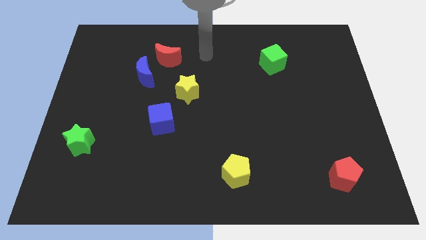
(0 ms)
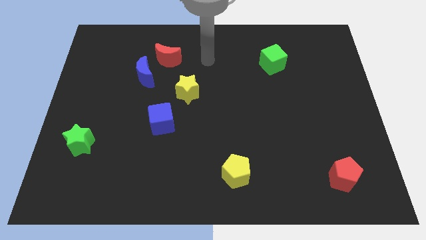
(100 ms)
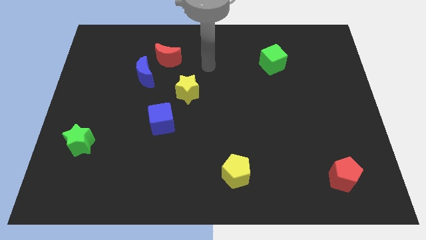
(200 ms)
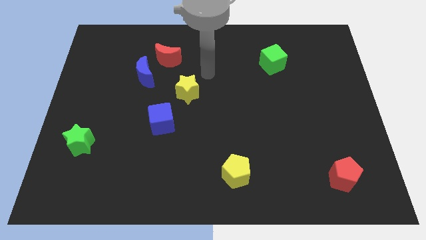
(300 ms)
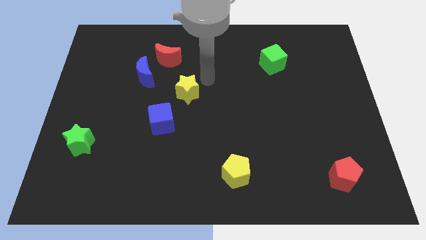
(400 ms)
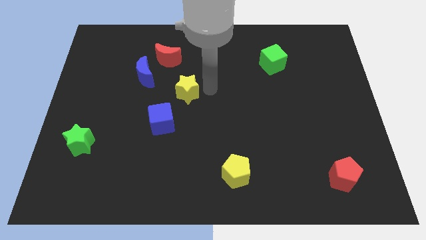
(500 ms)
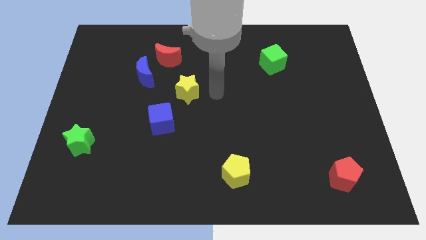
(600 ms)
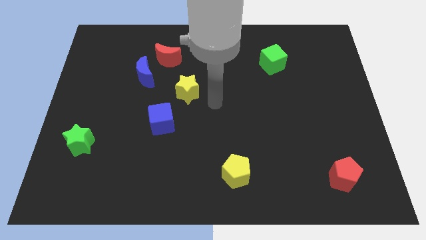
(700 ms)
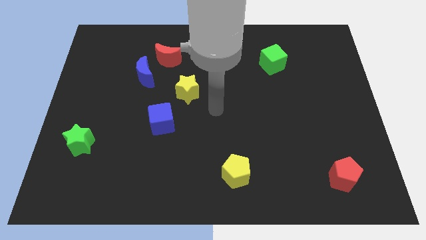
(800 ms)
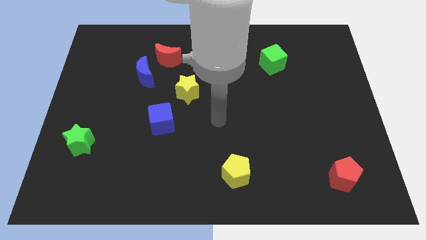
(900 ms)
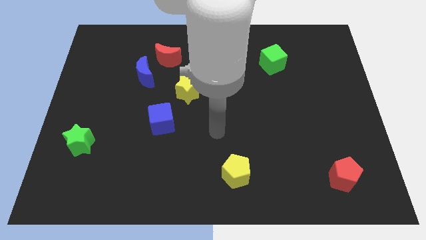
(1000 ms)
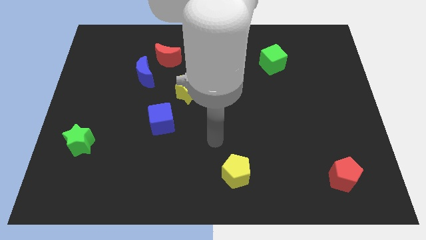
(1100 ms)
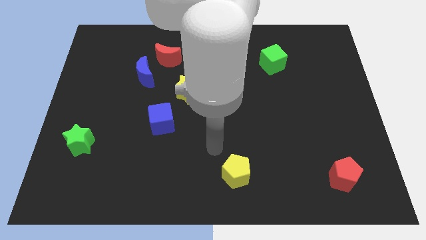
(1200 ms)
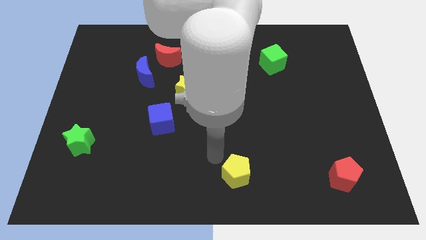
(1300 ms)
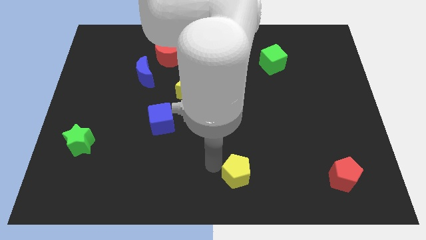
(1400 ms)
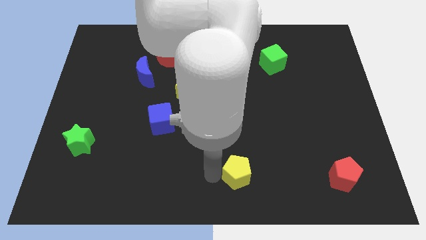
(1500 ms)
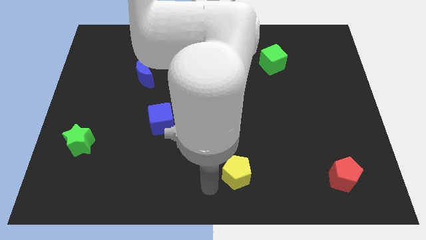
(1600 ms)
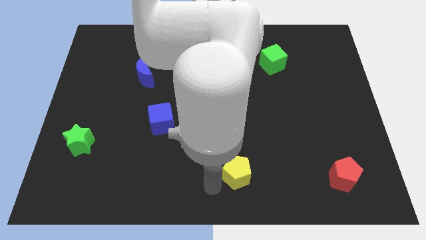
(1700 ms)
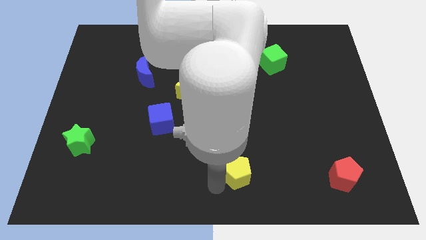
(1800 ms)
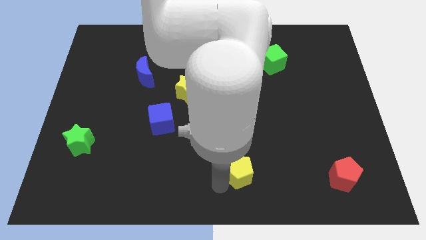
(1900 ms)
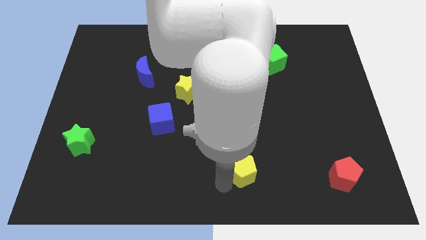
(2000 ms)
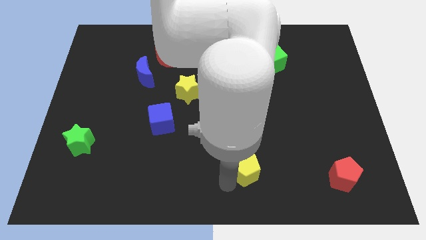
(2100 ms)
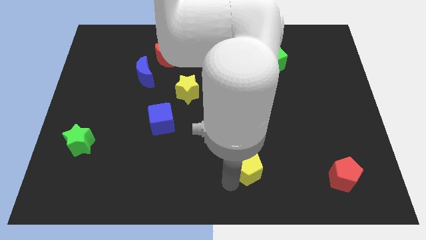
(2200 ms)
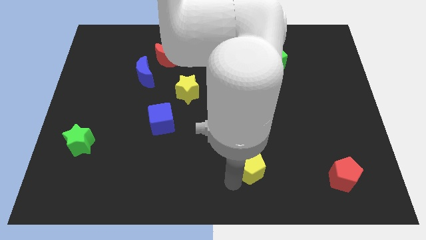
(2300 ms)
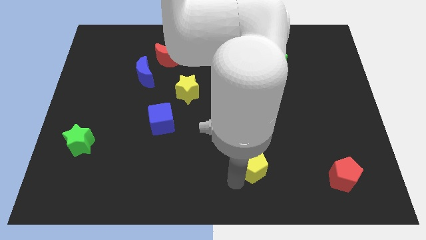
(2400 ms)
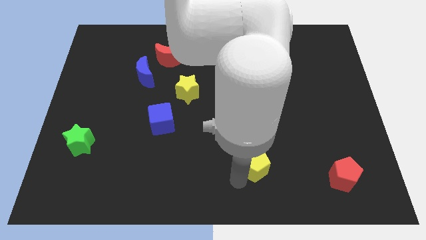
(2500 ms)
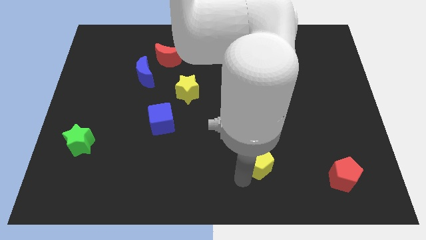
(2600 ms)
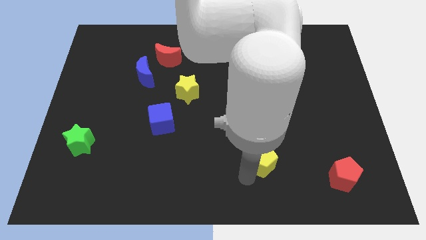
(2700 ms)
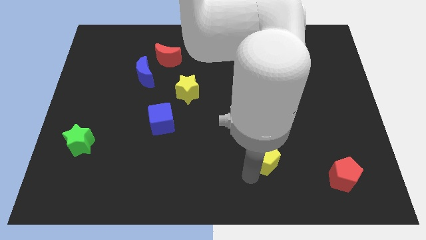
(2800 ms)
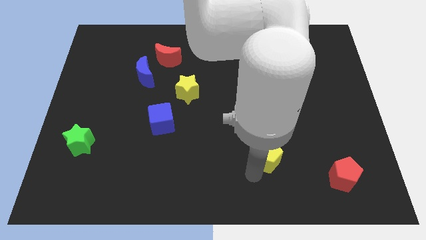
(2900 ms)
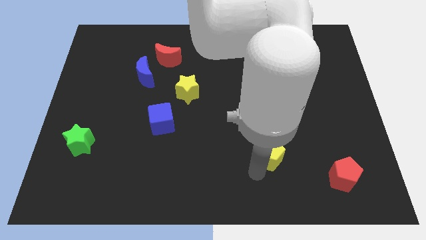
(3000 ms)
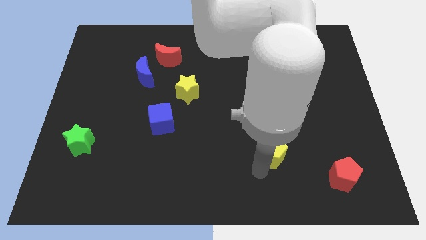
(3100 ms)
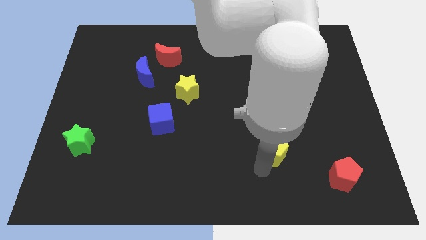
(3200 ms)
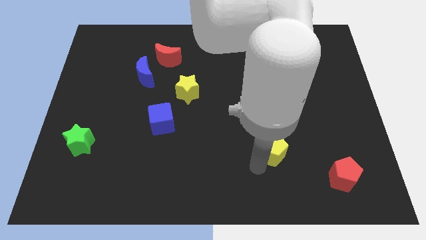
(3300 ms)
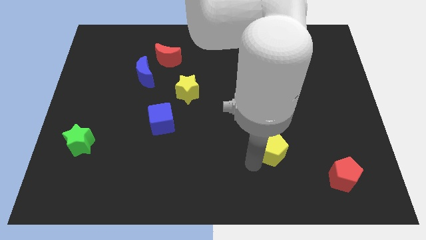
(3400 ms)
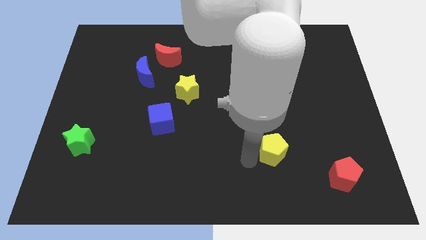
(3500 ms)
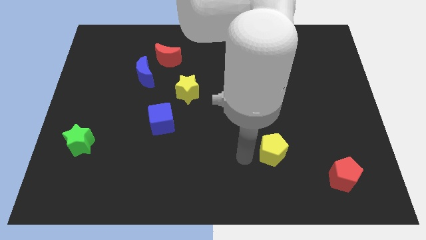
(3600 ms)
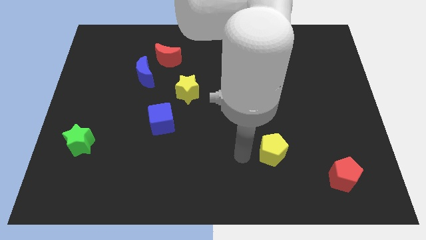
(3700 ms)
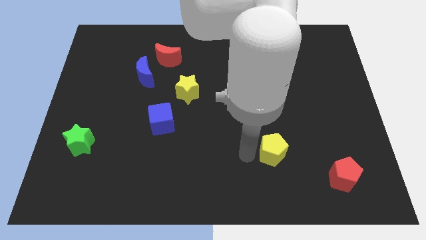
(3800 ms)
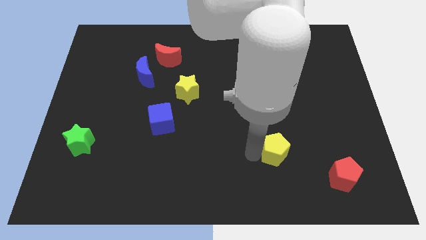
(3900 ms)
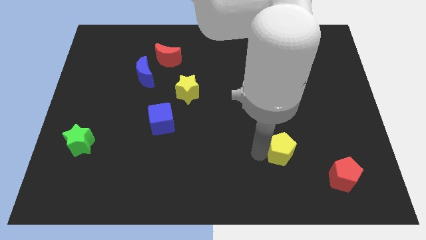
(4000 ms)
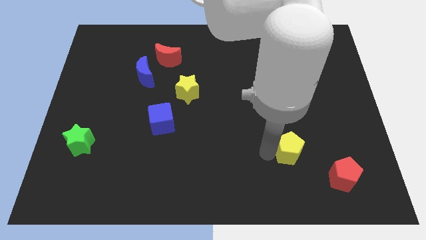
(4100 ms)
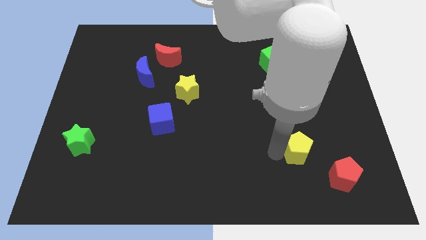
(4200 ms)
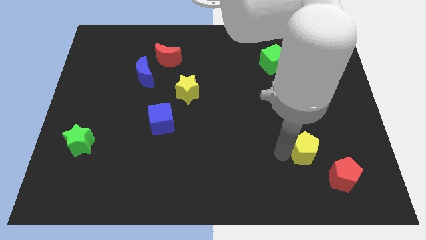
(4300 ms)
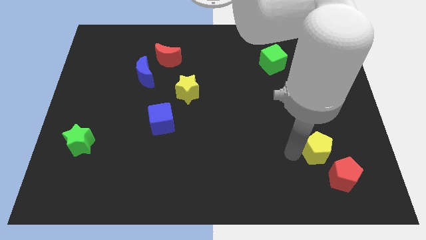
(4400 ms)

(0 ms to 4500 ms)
move the yellow pentagon to the top of the red pentagon

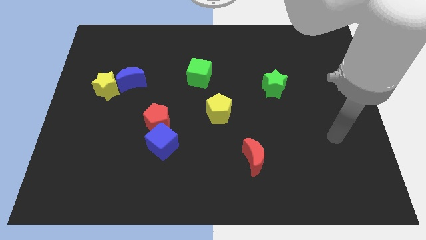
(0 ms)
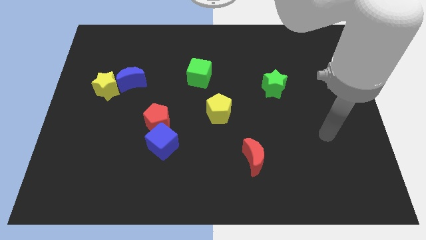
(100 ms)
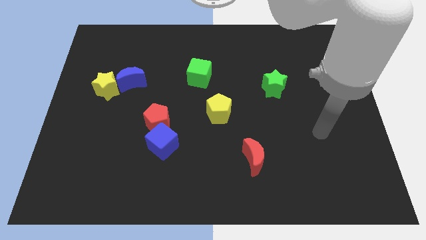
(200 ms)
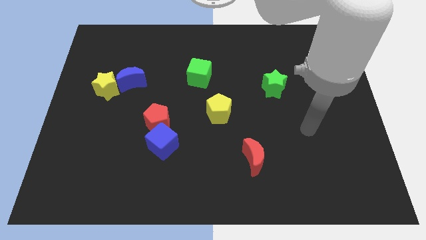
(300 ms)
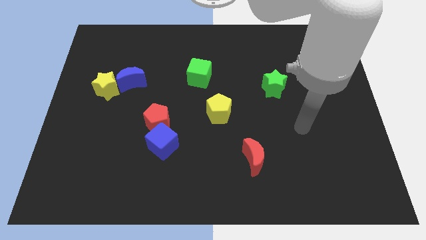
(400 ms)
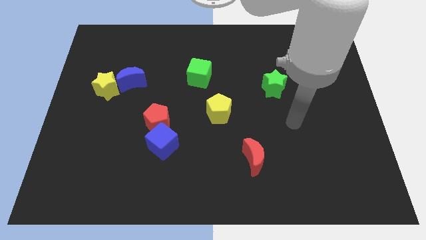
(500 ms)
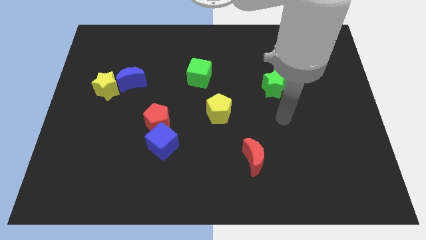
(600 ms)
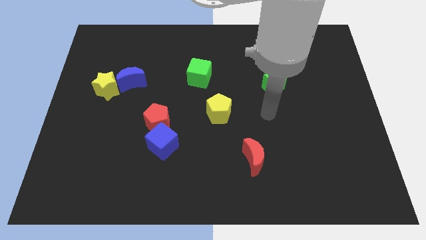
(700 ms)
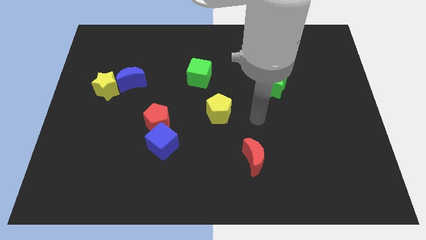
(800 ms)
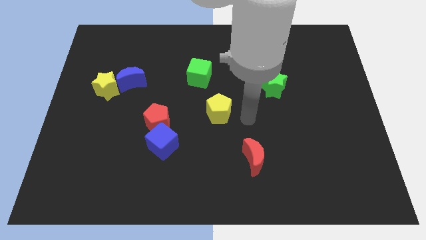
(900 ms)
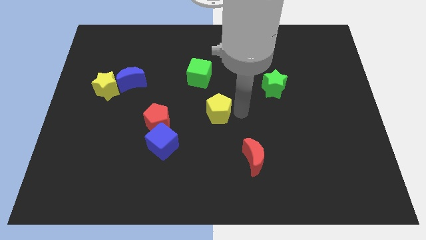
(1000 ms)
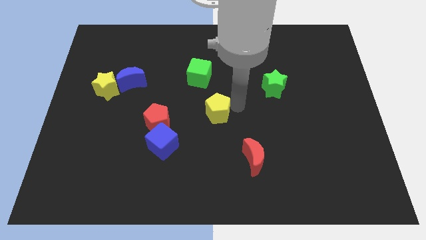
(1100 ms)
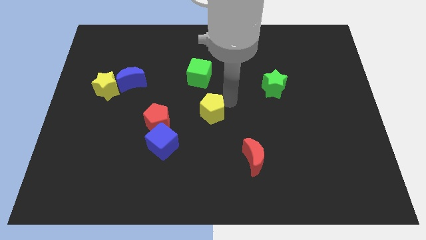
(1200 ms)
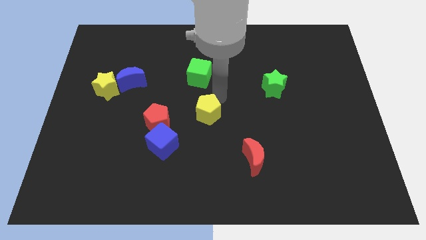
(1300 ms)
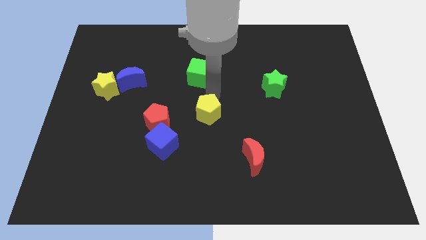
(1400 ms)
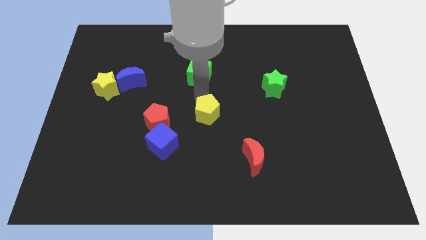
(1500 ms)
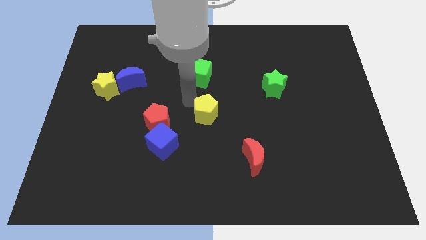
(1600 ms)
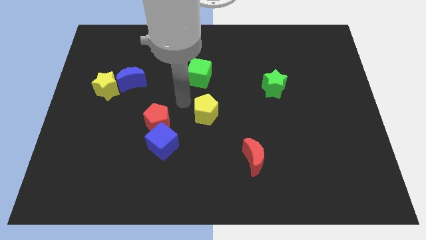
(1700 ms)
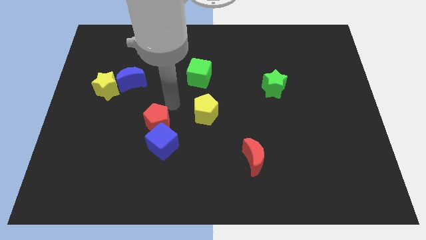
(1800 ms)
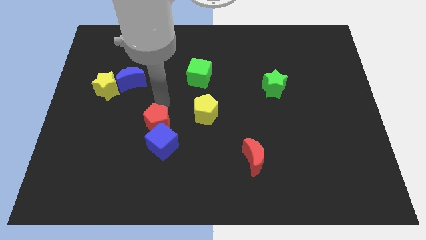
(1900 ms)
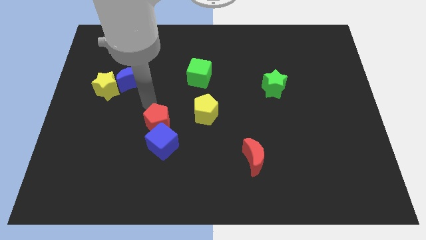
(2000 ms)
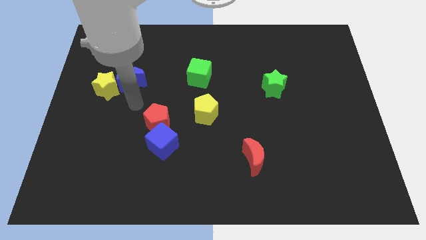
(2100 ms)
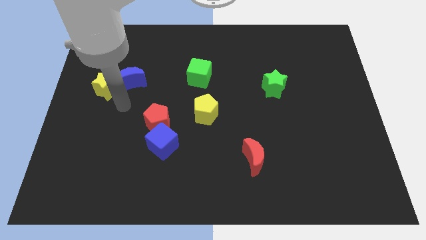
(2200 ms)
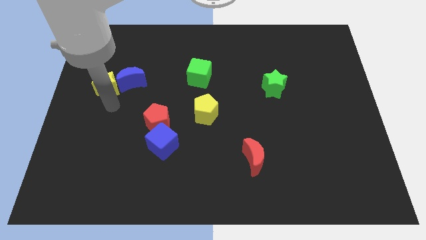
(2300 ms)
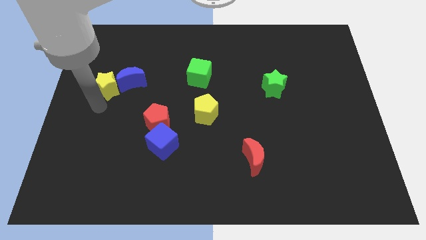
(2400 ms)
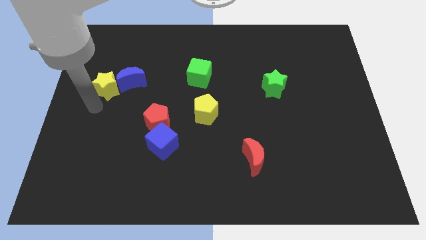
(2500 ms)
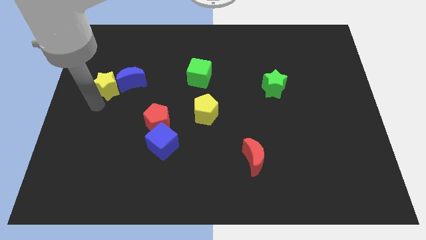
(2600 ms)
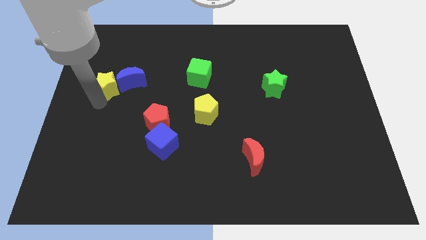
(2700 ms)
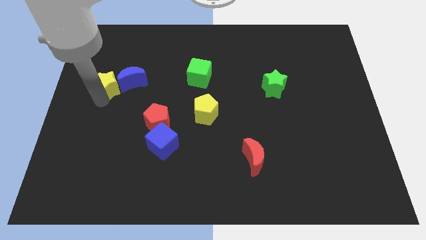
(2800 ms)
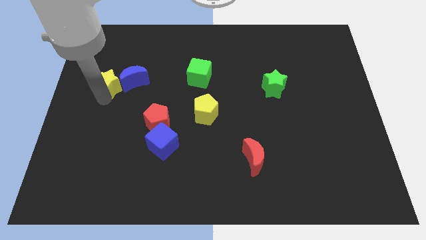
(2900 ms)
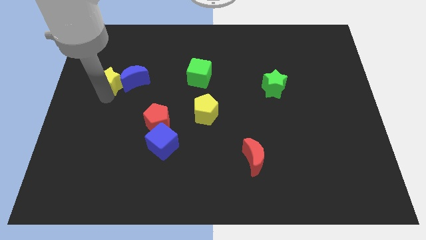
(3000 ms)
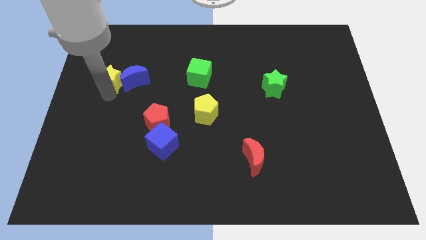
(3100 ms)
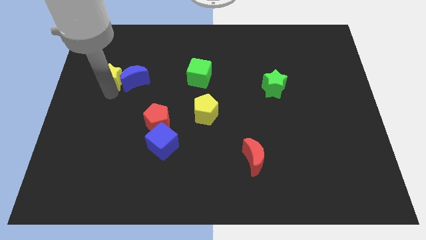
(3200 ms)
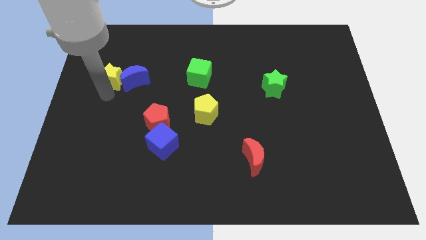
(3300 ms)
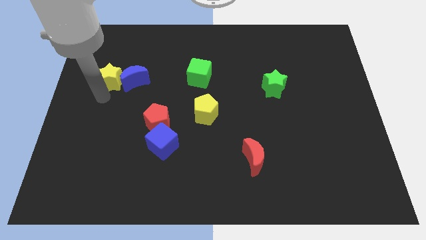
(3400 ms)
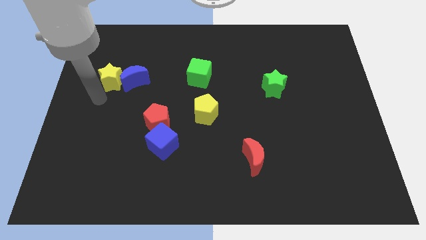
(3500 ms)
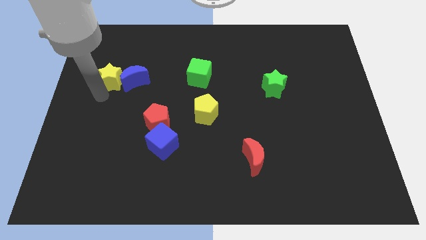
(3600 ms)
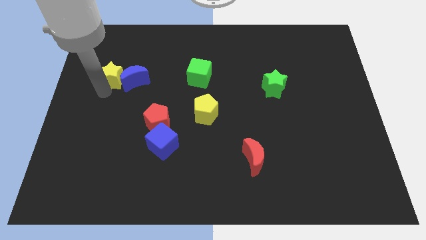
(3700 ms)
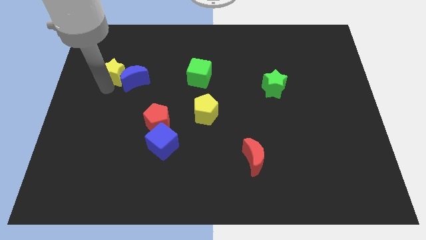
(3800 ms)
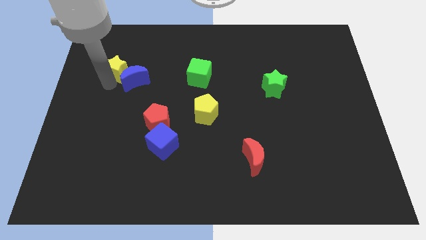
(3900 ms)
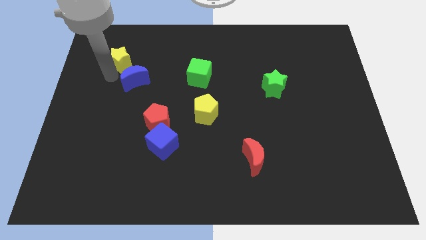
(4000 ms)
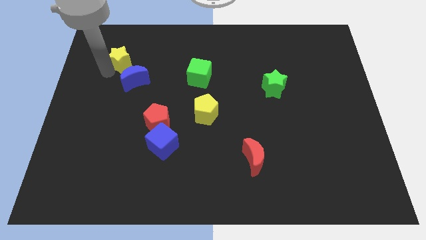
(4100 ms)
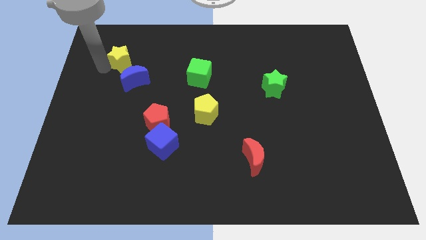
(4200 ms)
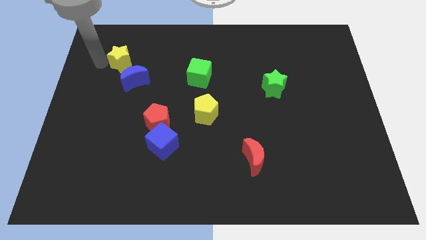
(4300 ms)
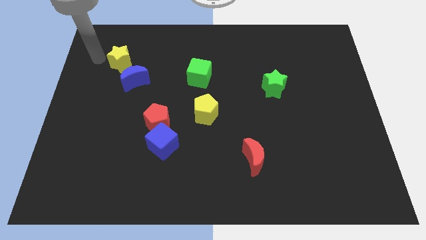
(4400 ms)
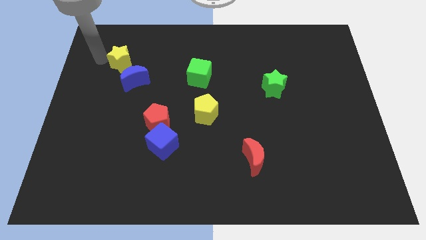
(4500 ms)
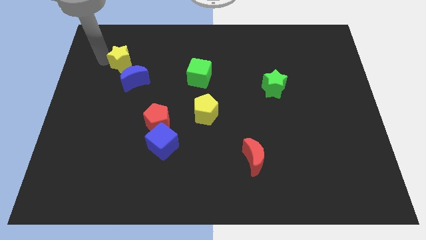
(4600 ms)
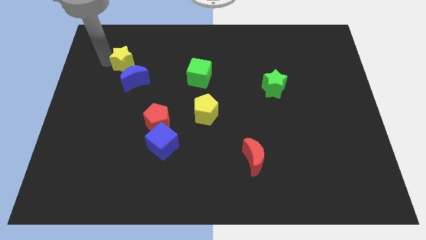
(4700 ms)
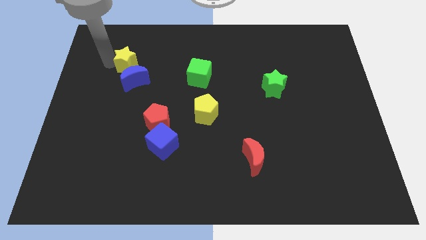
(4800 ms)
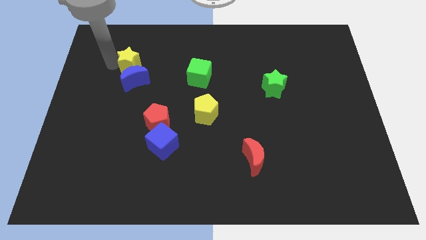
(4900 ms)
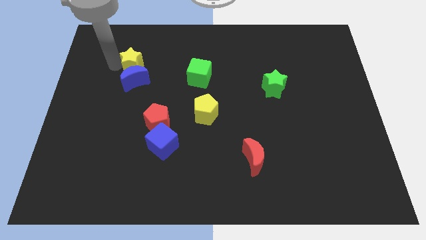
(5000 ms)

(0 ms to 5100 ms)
put the yellow star to the top right of the blue moon
